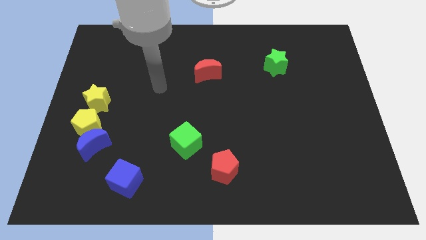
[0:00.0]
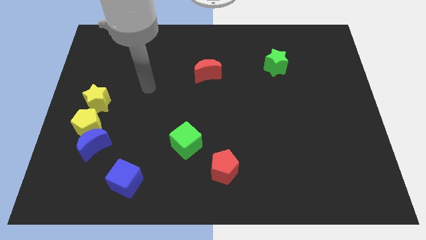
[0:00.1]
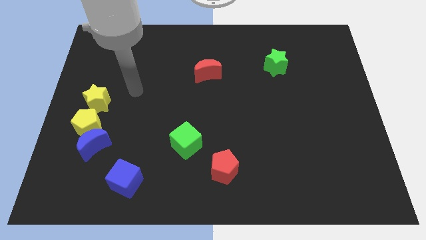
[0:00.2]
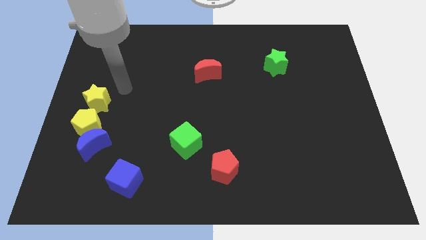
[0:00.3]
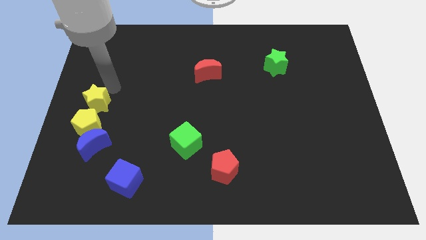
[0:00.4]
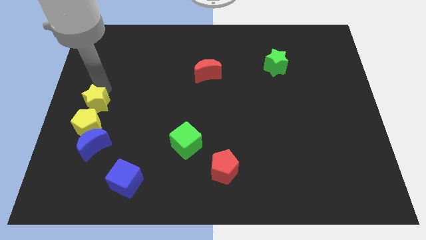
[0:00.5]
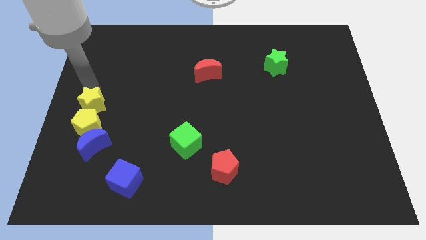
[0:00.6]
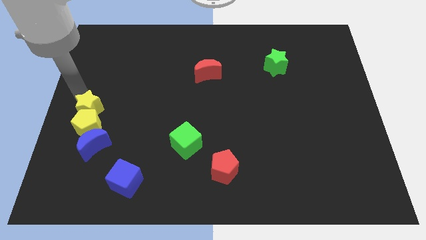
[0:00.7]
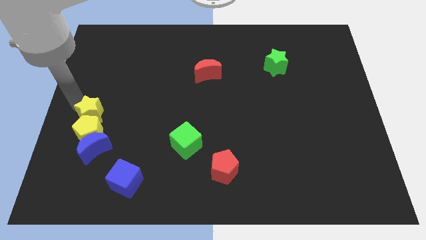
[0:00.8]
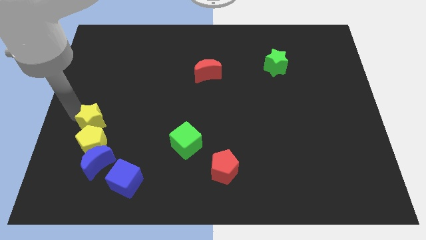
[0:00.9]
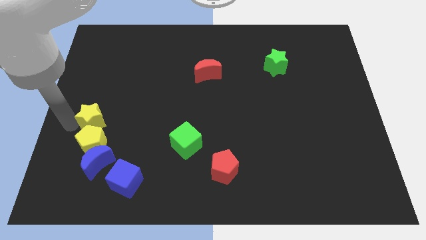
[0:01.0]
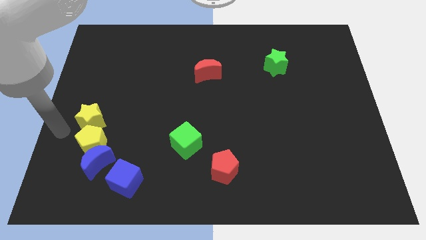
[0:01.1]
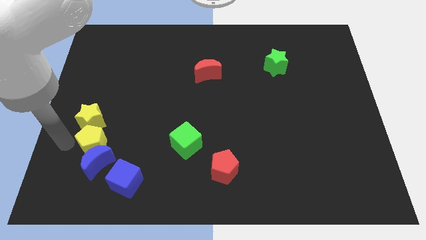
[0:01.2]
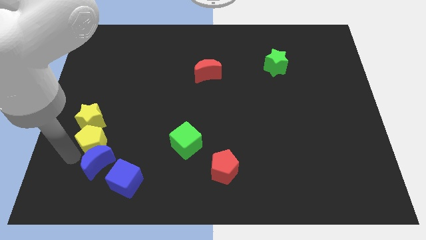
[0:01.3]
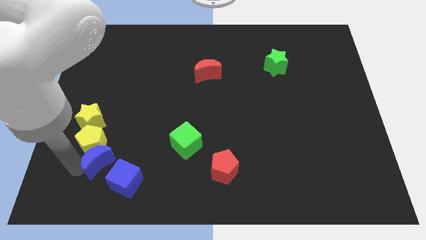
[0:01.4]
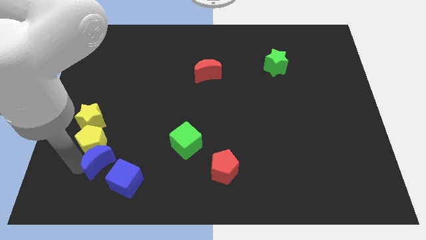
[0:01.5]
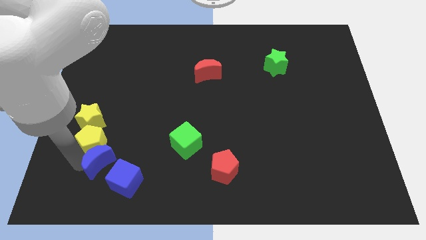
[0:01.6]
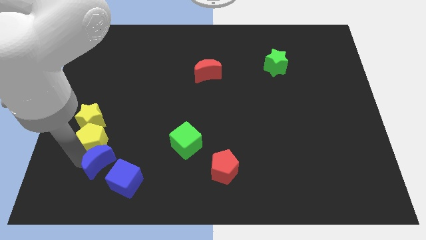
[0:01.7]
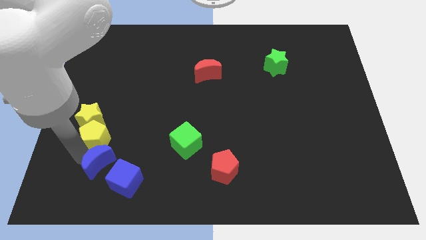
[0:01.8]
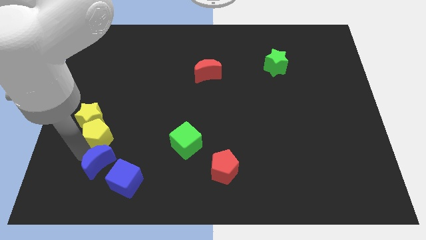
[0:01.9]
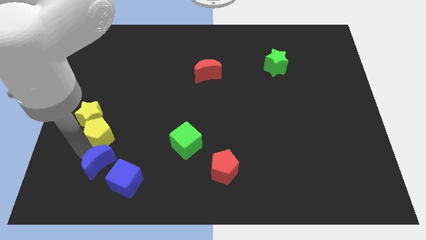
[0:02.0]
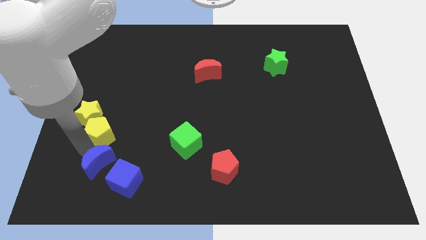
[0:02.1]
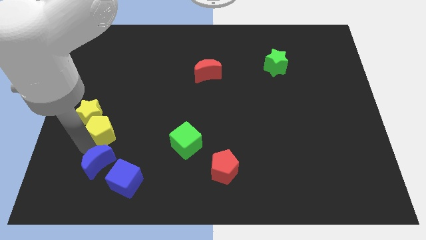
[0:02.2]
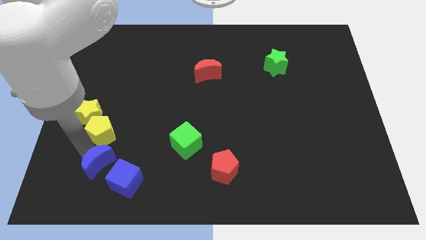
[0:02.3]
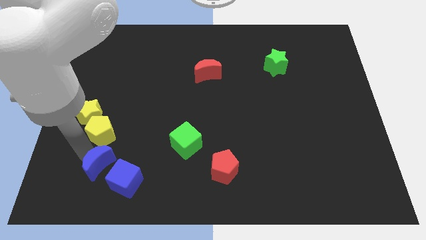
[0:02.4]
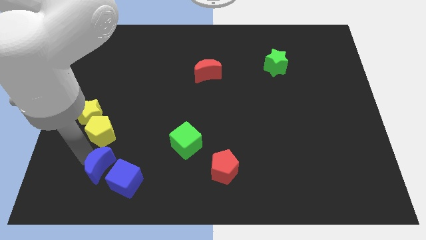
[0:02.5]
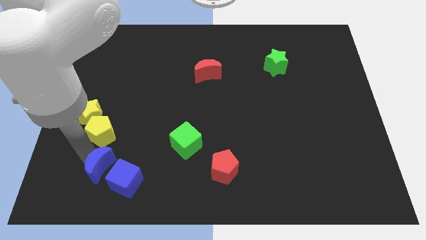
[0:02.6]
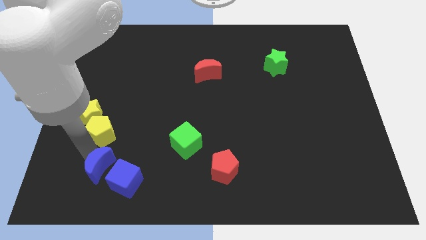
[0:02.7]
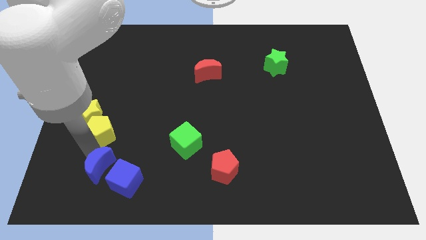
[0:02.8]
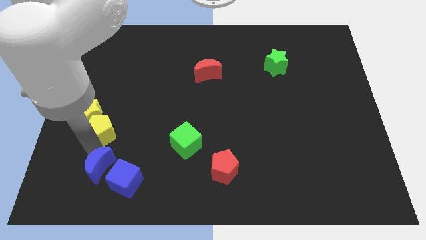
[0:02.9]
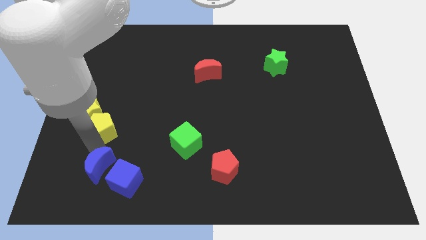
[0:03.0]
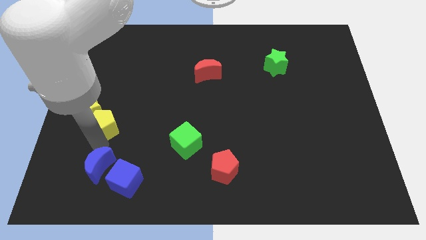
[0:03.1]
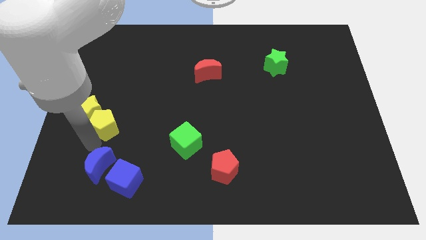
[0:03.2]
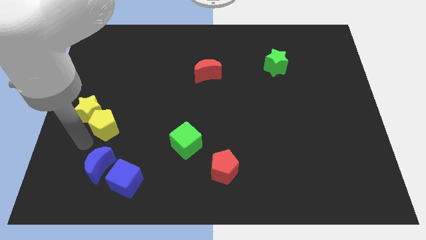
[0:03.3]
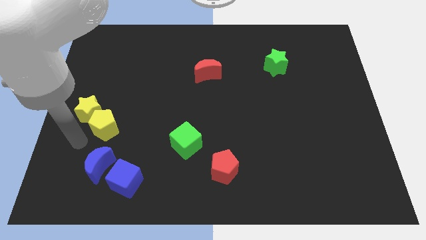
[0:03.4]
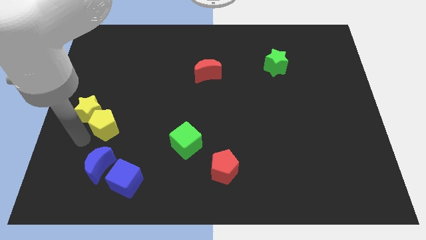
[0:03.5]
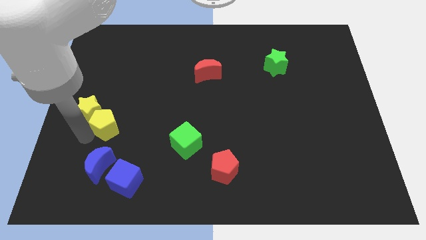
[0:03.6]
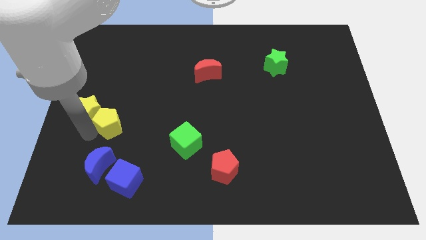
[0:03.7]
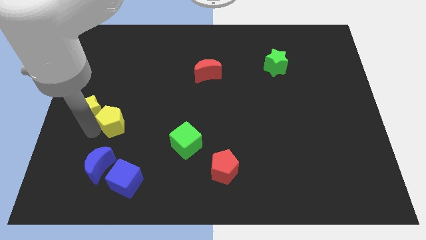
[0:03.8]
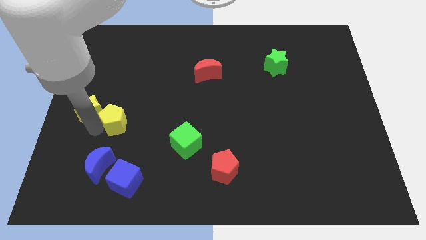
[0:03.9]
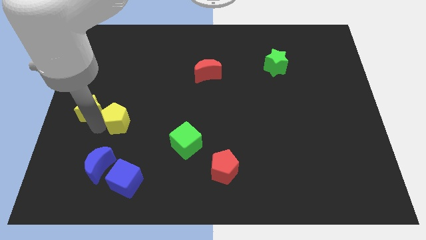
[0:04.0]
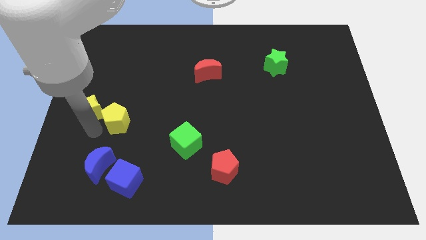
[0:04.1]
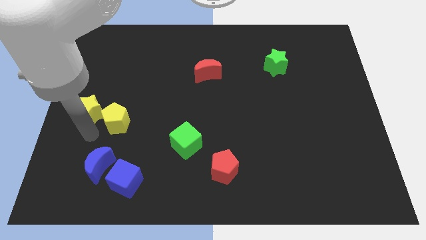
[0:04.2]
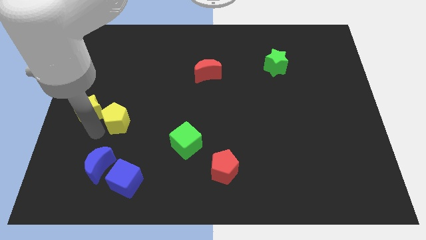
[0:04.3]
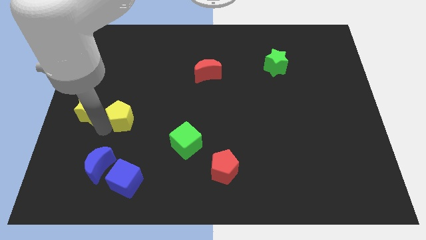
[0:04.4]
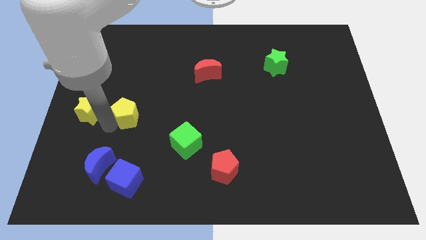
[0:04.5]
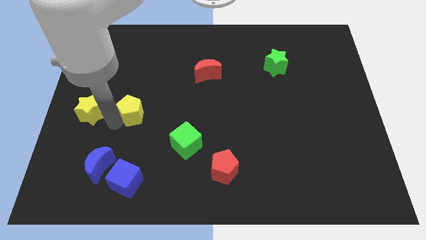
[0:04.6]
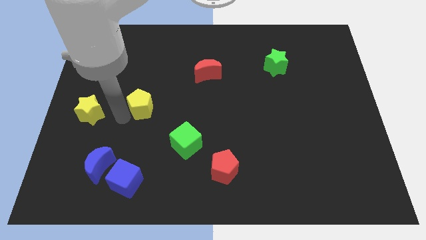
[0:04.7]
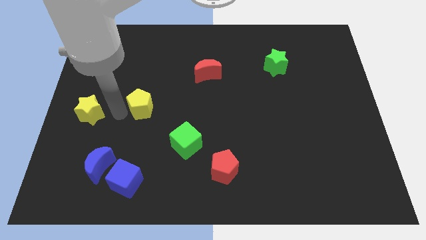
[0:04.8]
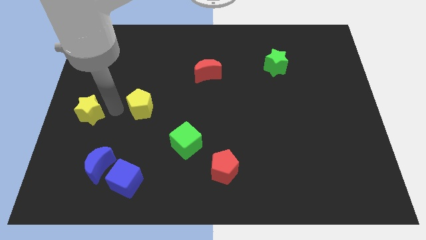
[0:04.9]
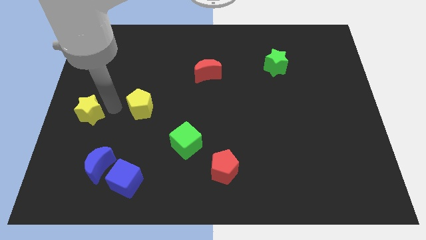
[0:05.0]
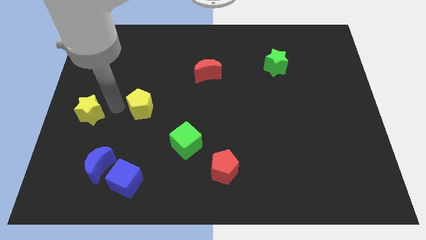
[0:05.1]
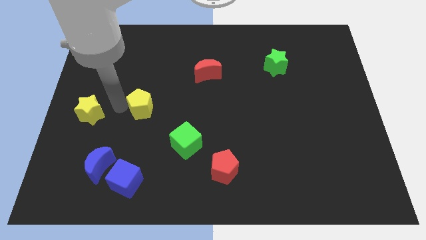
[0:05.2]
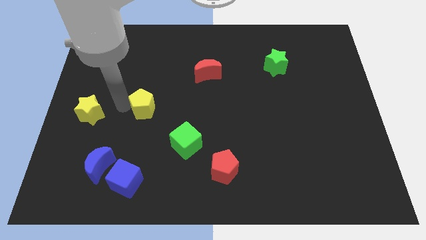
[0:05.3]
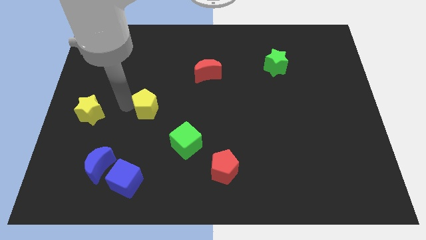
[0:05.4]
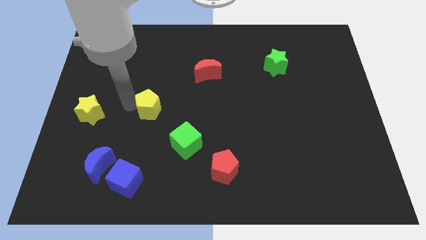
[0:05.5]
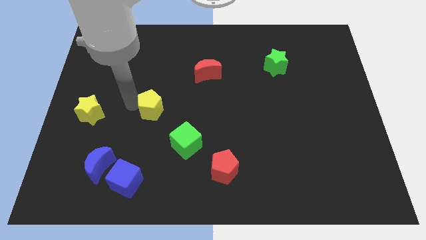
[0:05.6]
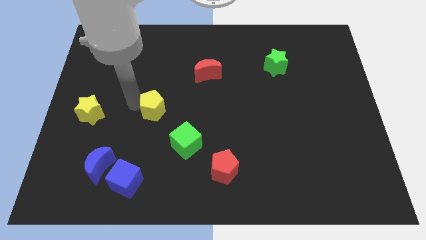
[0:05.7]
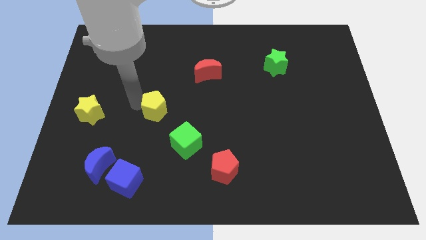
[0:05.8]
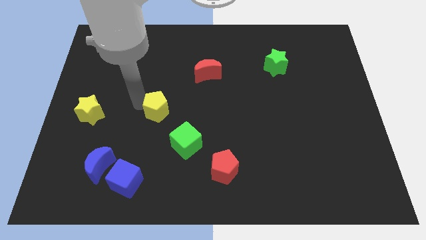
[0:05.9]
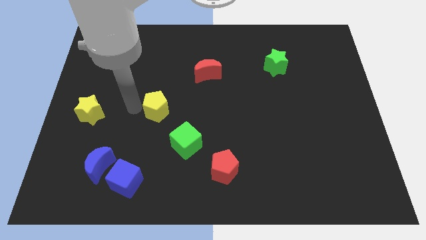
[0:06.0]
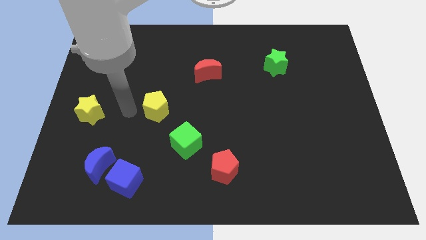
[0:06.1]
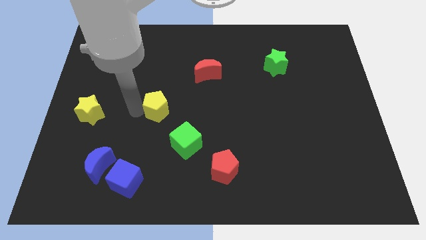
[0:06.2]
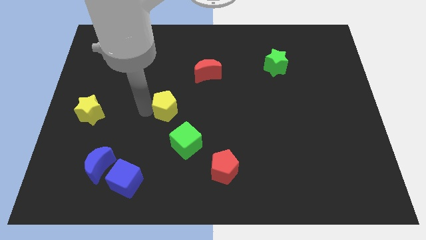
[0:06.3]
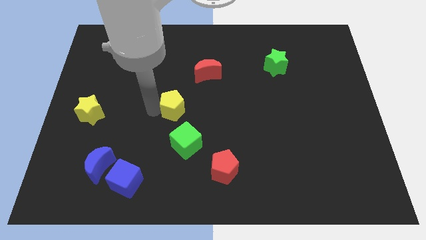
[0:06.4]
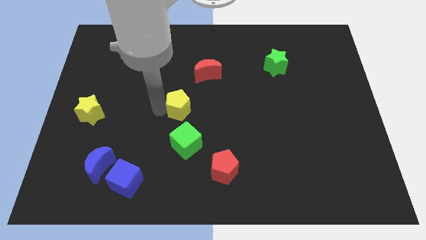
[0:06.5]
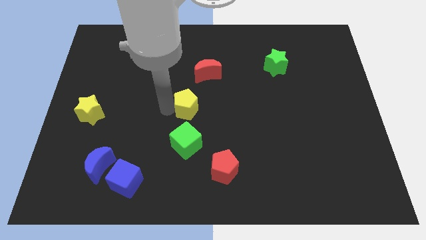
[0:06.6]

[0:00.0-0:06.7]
put the yellow pentagon to the bottom side of the red moon

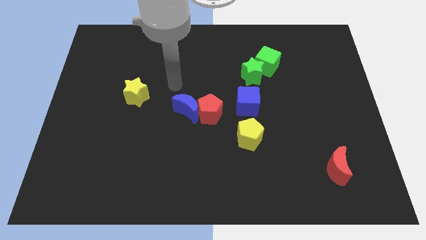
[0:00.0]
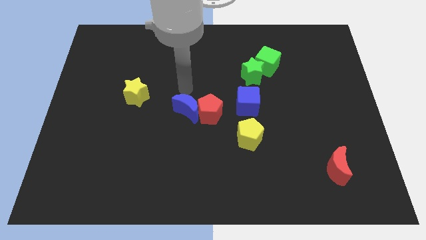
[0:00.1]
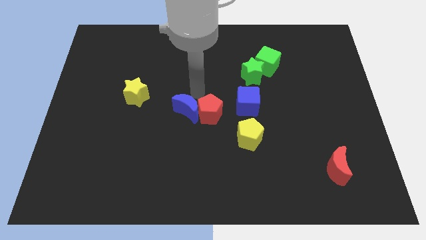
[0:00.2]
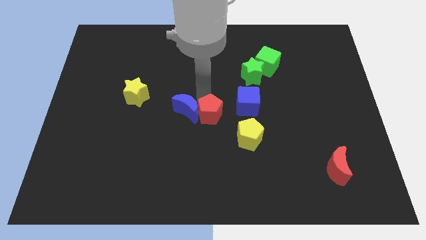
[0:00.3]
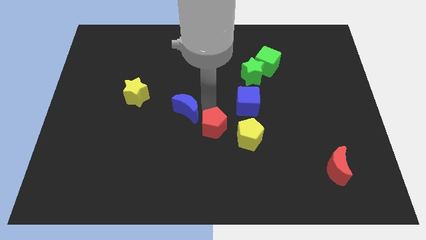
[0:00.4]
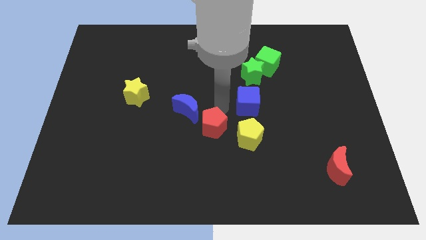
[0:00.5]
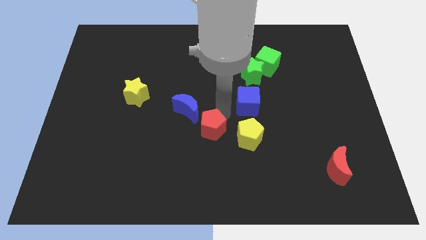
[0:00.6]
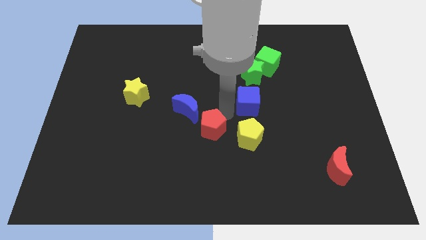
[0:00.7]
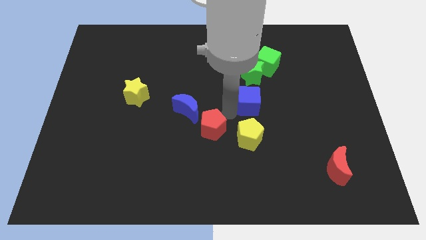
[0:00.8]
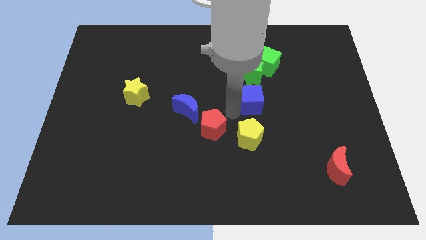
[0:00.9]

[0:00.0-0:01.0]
move the blue cube to the bottom side of the green cube
